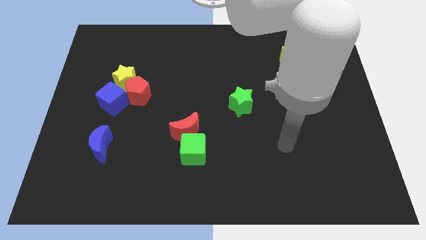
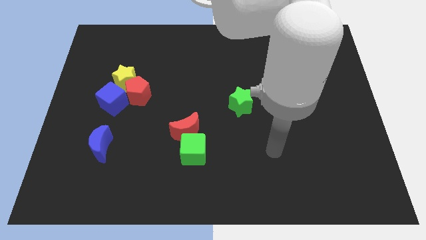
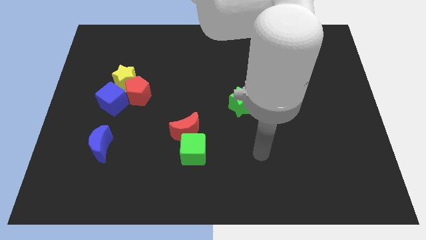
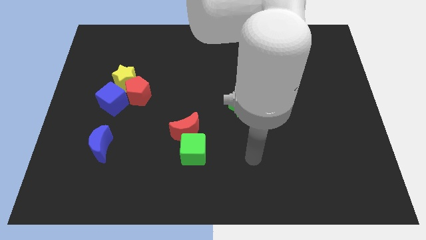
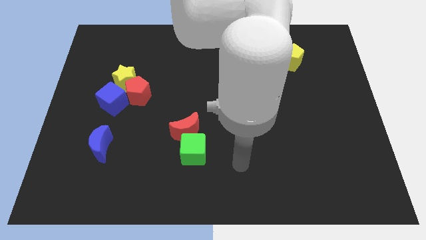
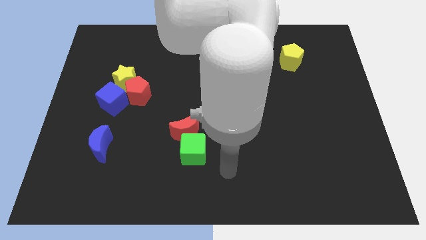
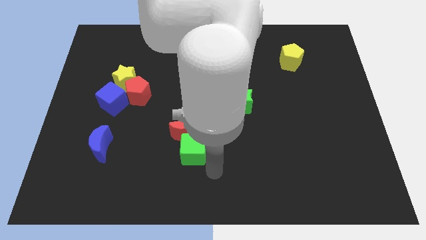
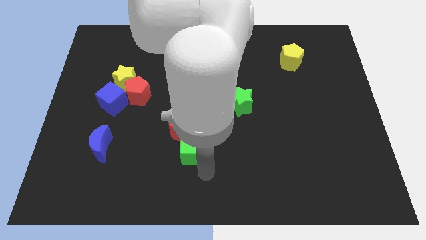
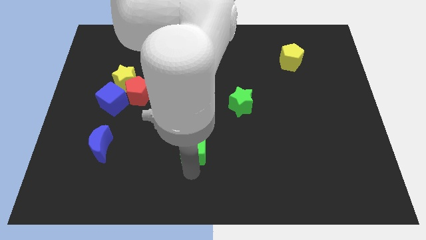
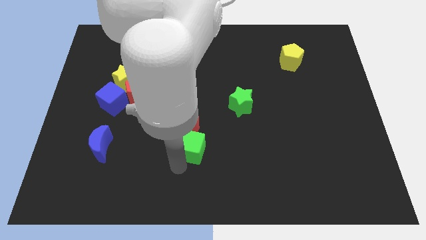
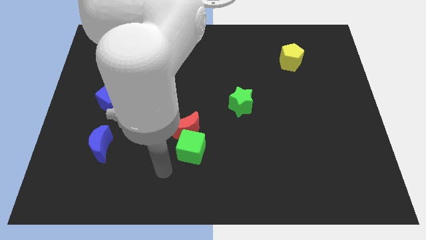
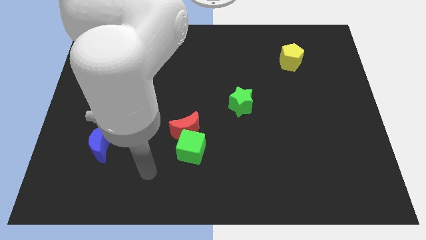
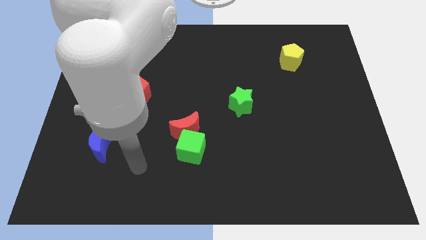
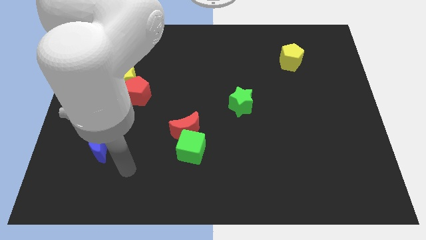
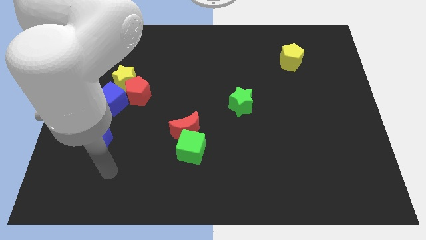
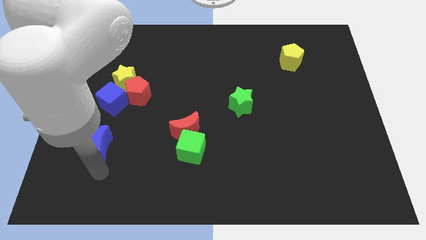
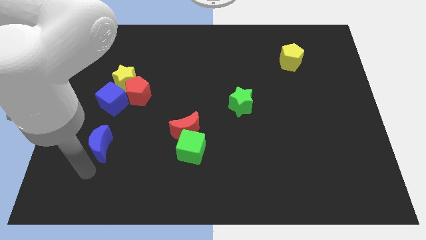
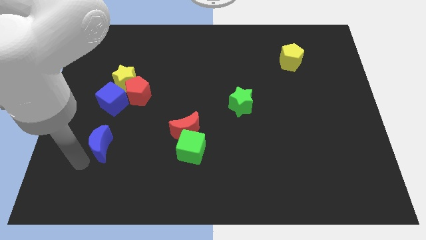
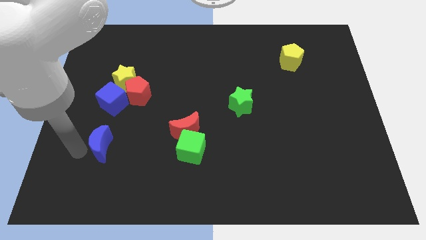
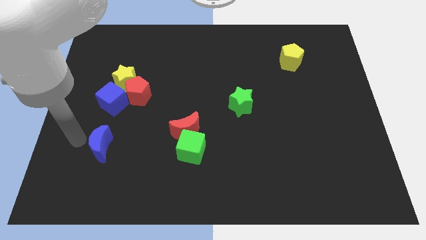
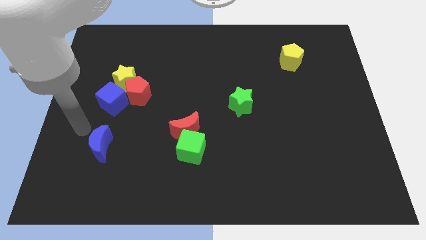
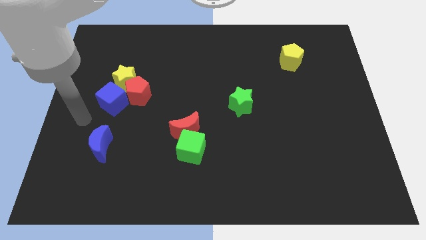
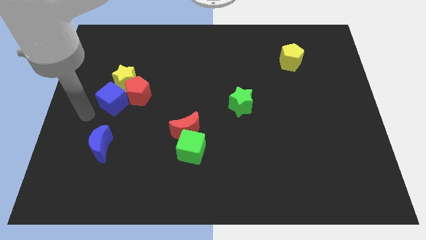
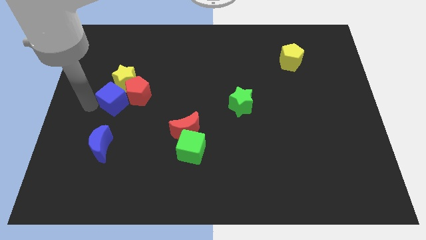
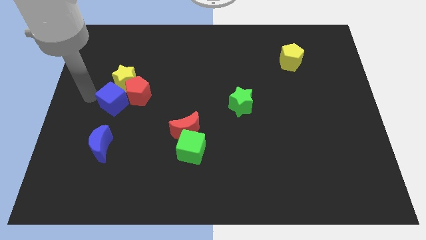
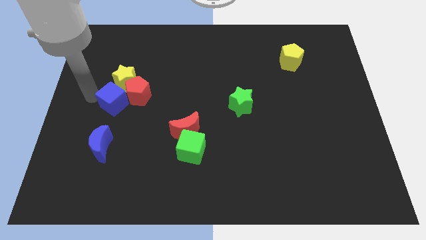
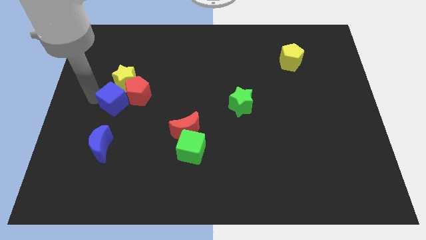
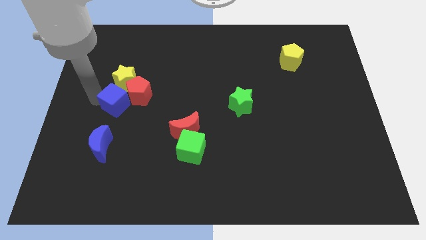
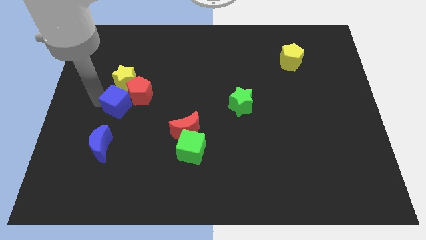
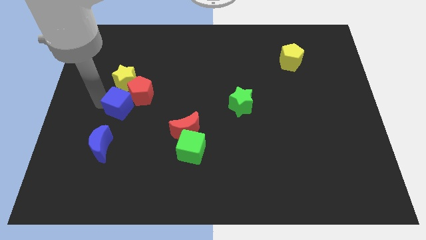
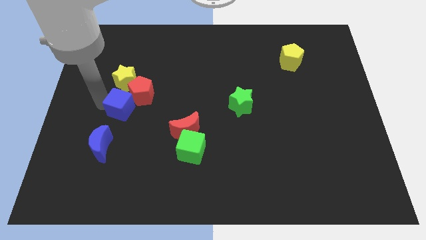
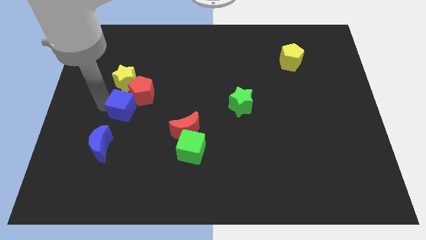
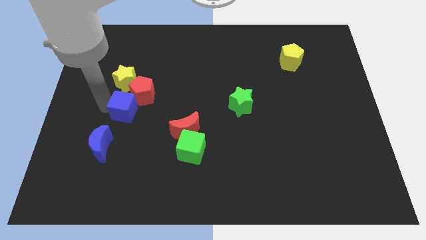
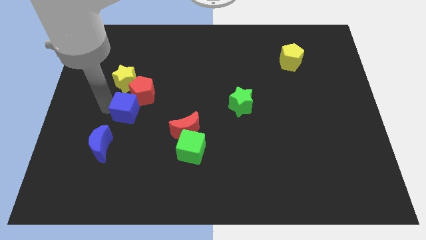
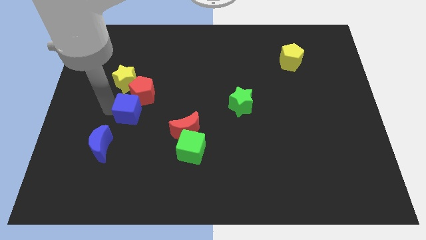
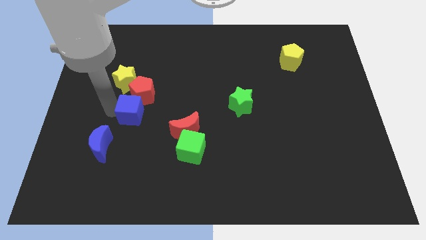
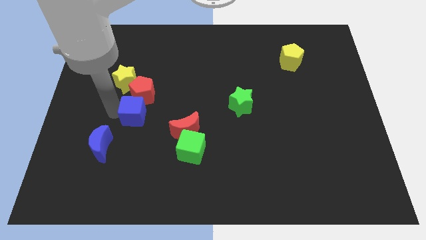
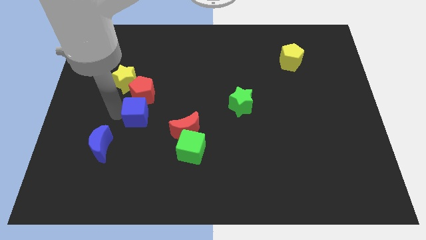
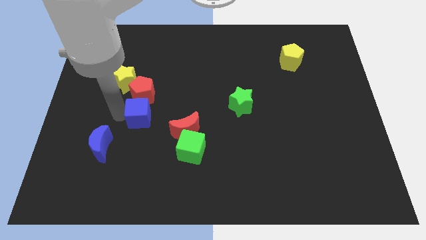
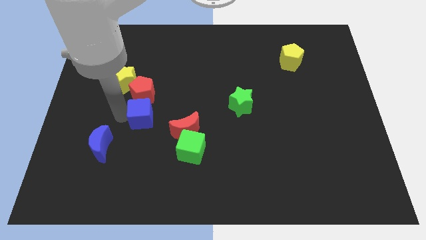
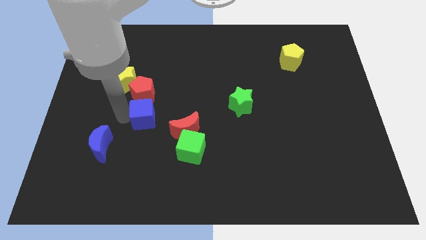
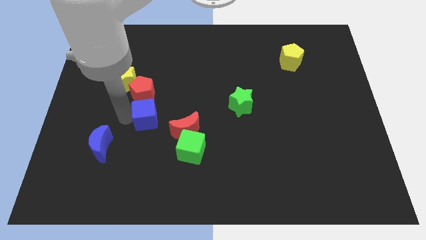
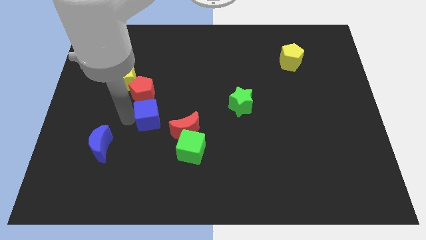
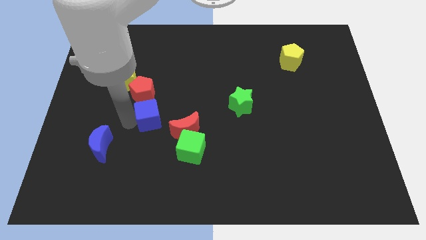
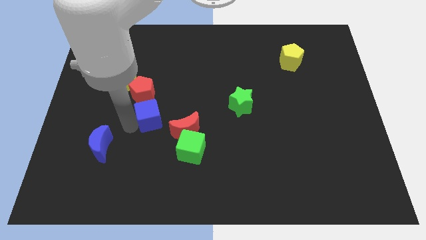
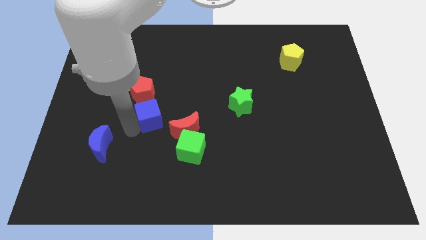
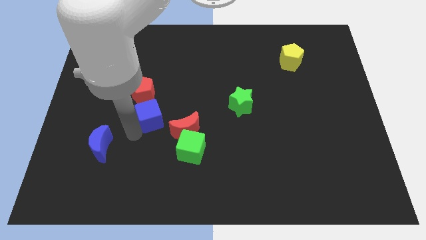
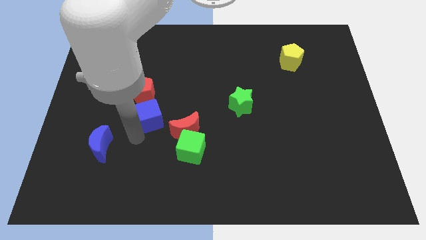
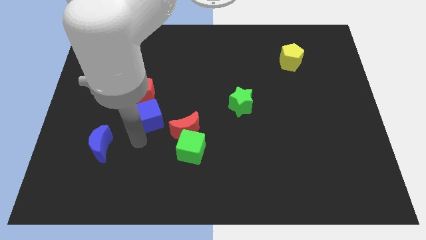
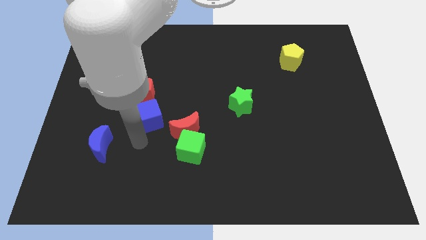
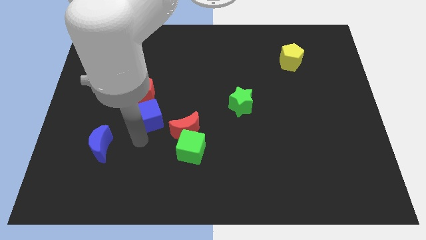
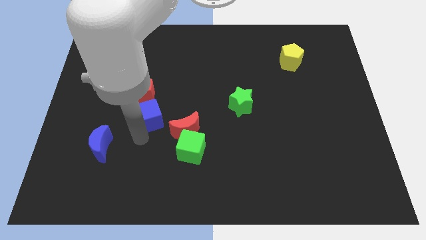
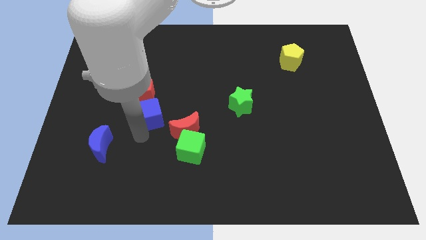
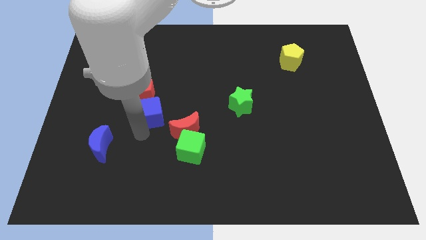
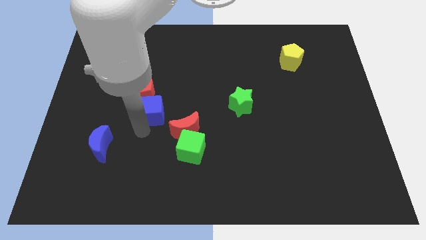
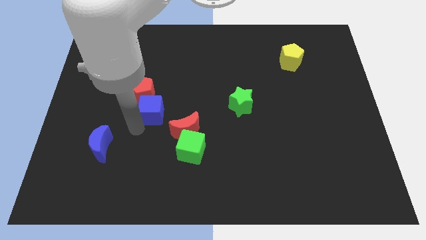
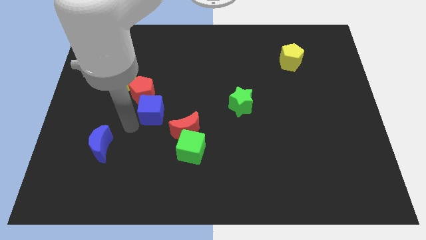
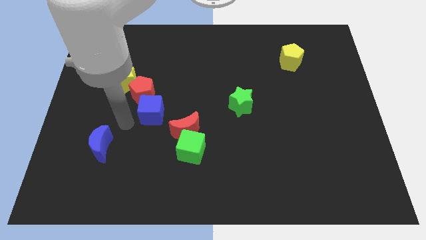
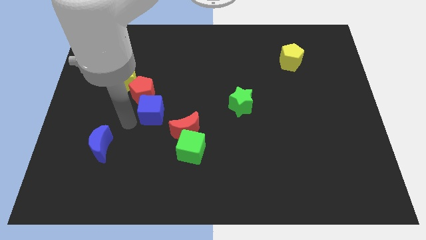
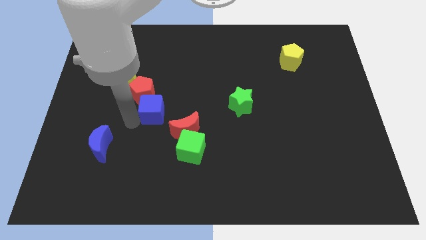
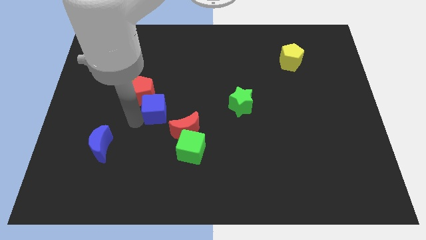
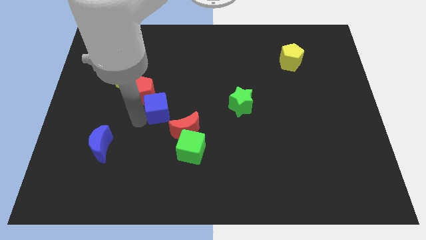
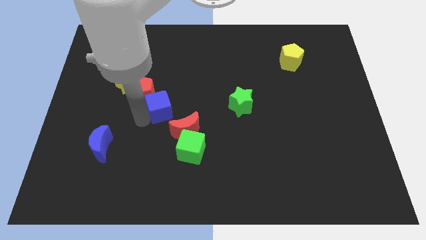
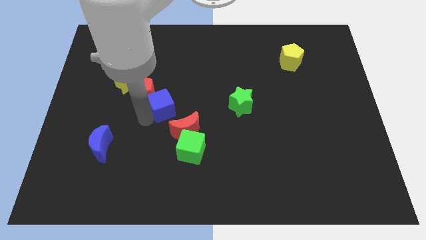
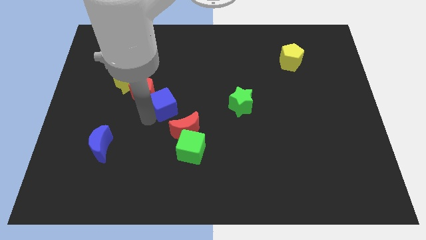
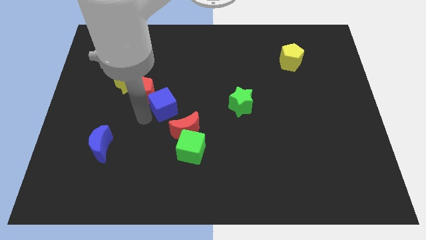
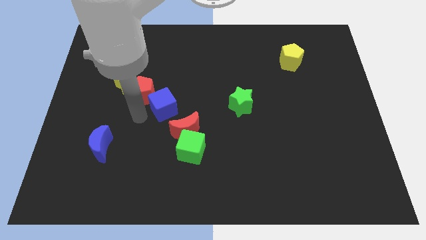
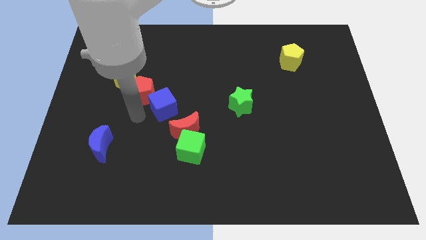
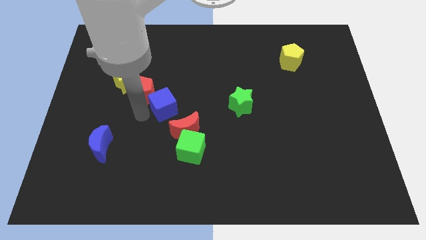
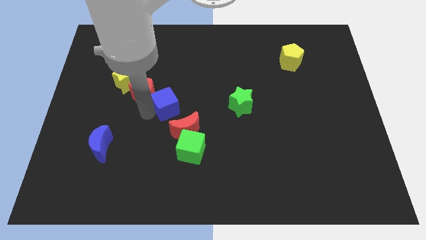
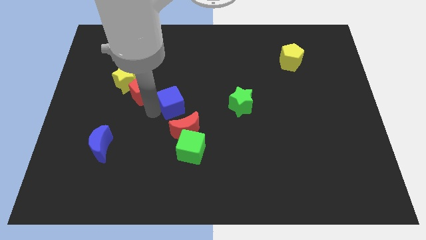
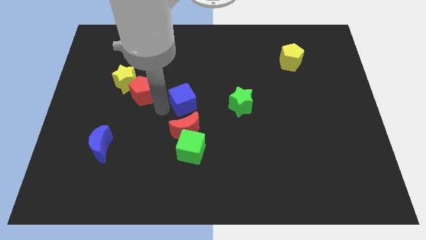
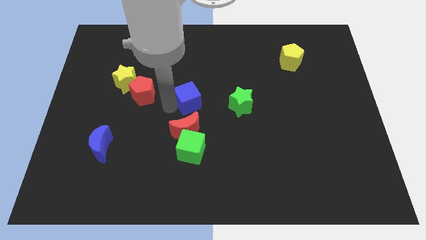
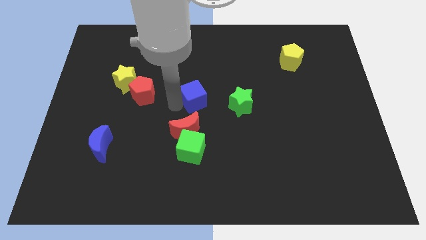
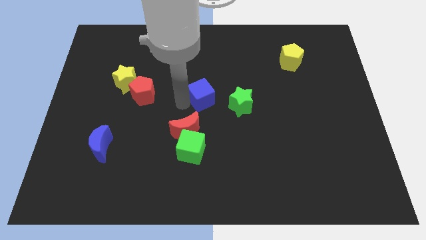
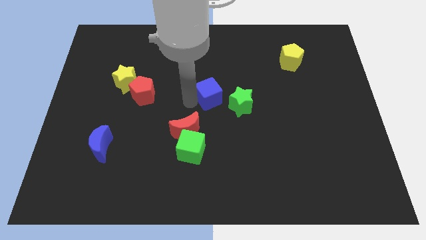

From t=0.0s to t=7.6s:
put the blue cube to the top left of the green star

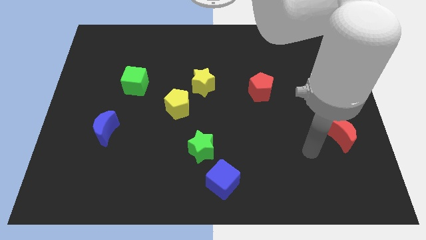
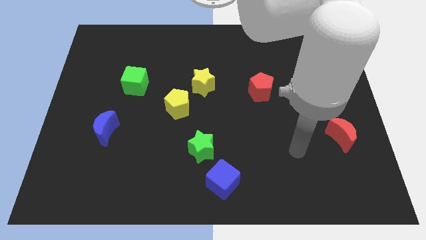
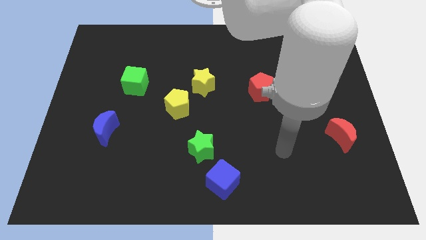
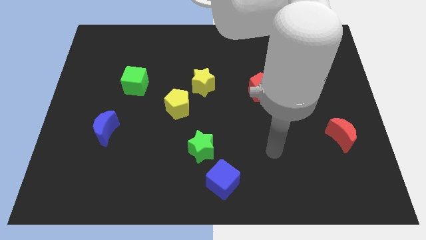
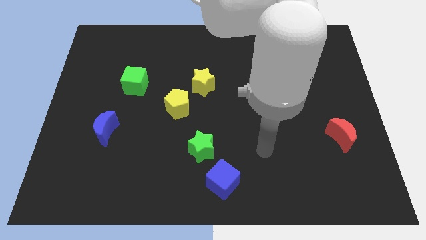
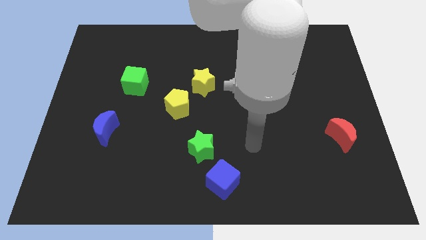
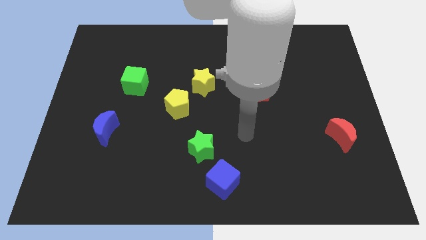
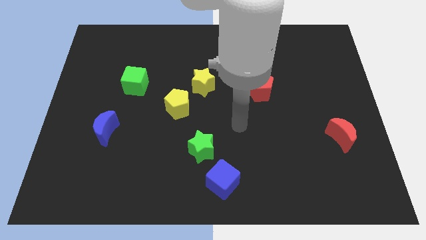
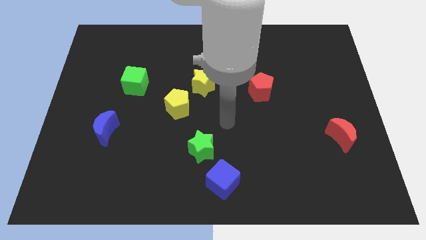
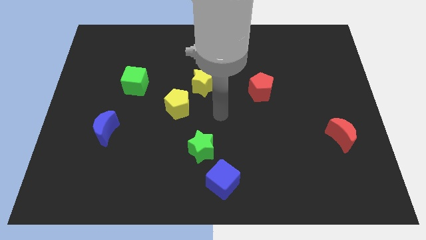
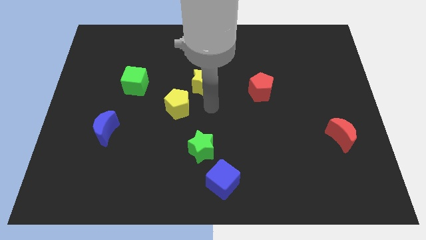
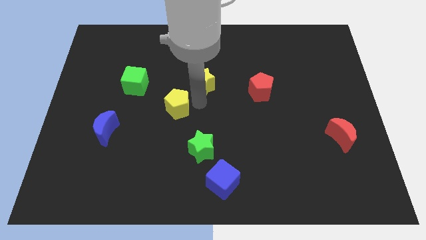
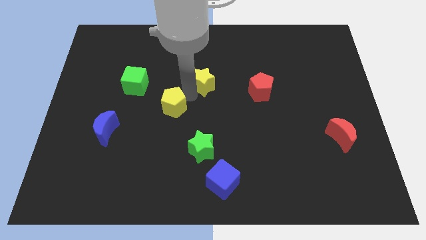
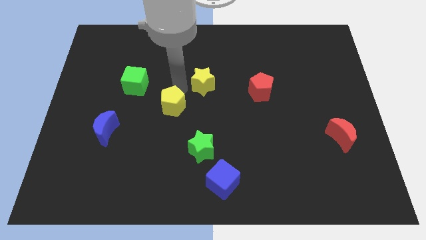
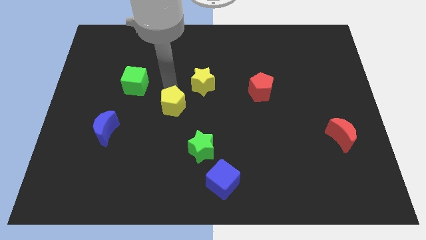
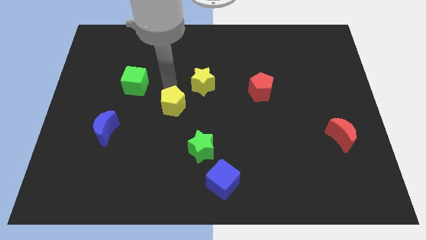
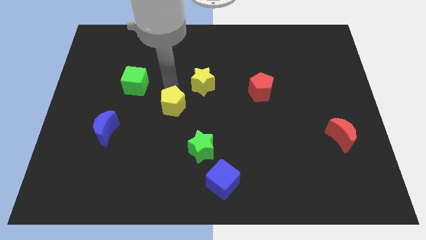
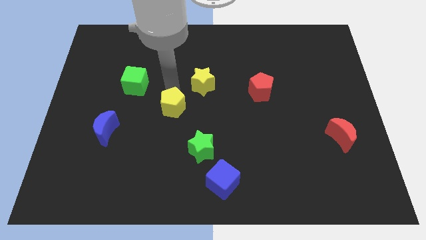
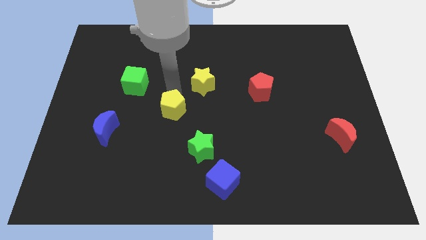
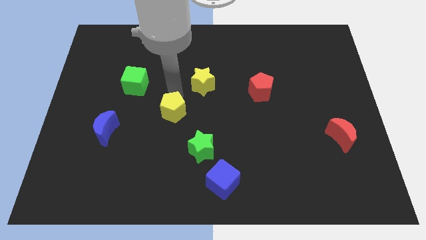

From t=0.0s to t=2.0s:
put the yellow pentagon to the top left of the green star
